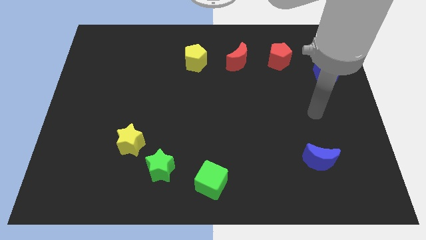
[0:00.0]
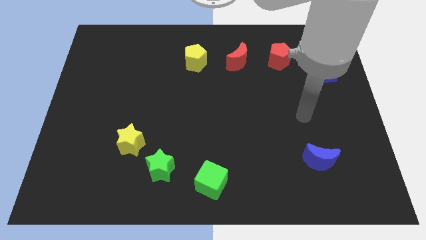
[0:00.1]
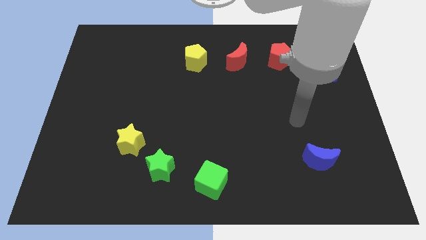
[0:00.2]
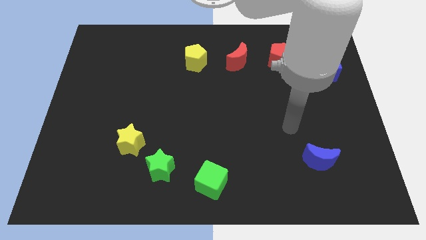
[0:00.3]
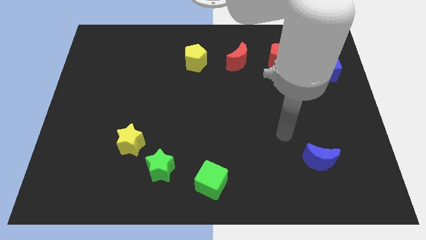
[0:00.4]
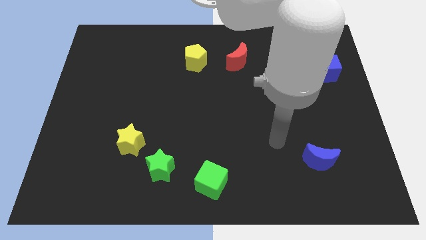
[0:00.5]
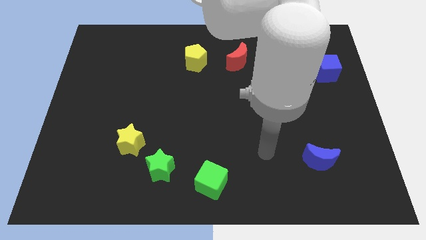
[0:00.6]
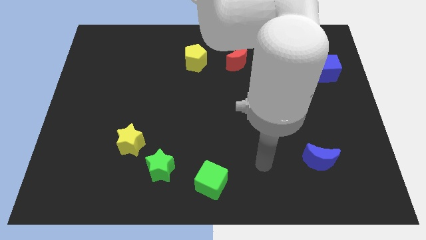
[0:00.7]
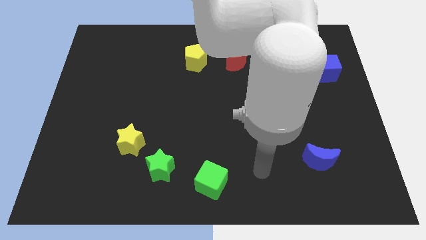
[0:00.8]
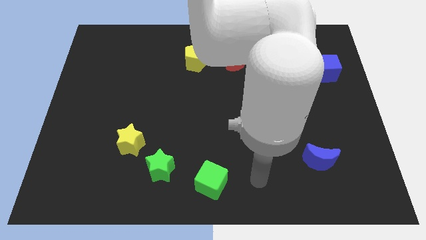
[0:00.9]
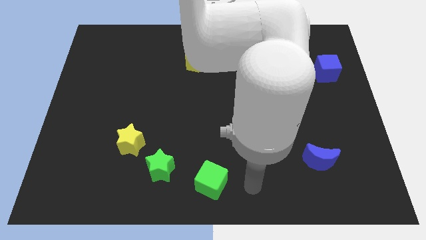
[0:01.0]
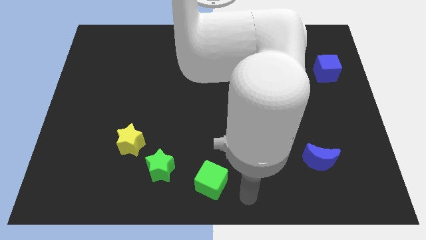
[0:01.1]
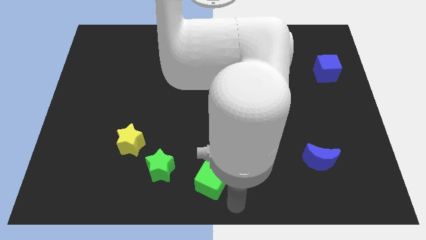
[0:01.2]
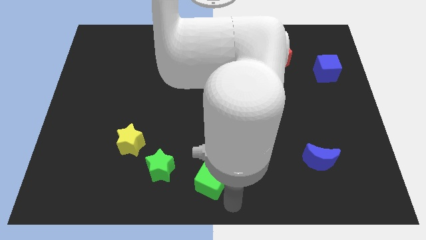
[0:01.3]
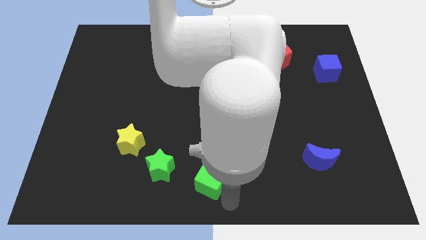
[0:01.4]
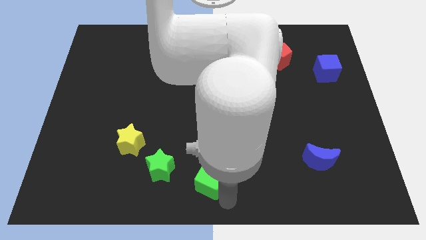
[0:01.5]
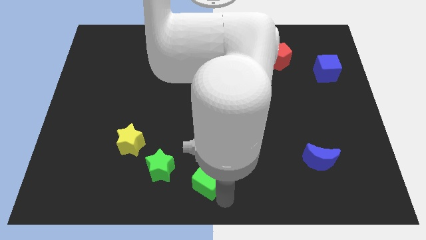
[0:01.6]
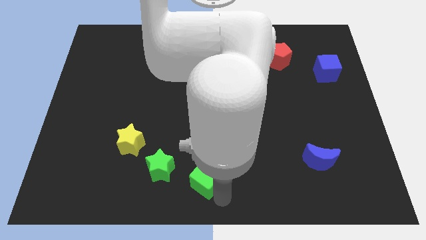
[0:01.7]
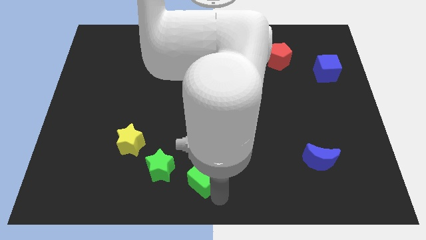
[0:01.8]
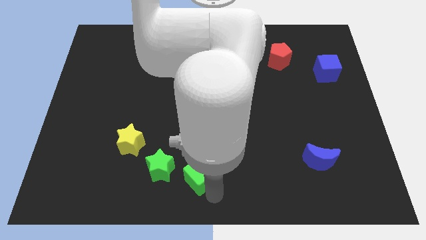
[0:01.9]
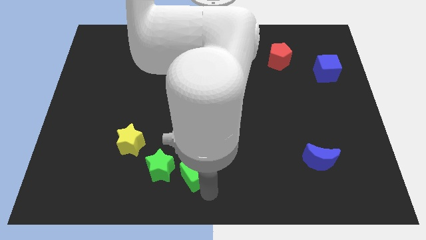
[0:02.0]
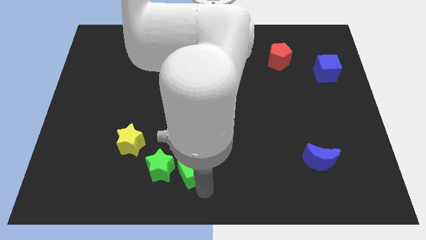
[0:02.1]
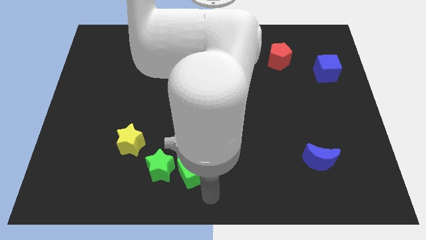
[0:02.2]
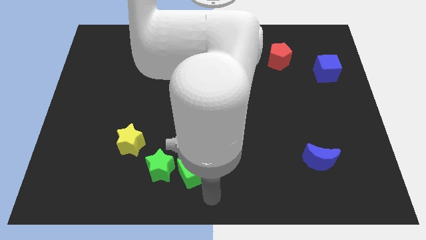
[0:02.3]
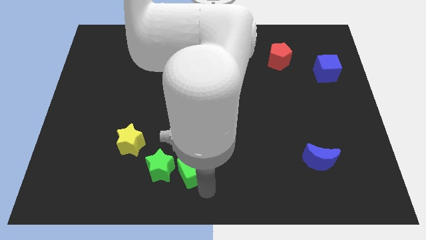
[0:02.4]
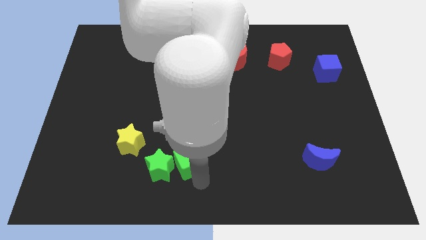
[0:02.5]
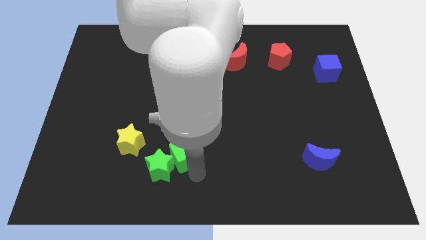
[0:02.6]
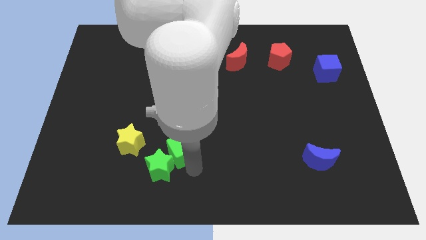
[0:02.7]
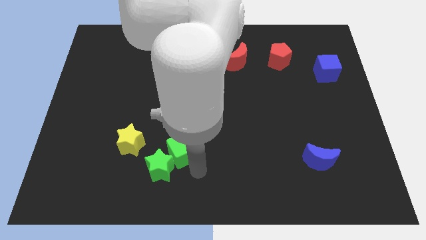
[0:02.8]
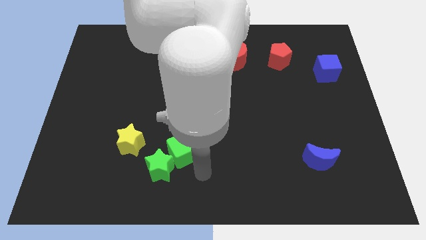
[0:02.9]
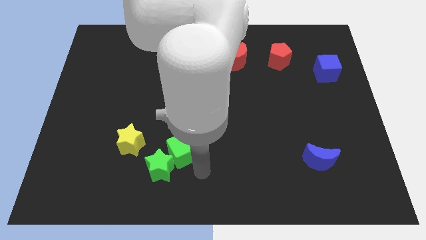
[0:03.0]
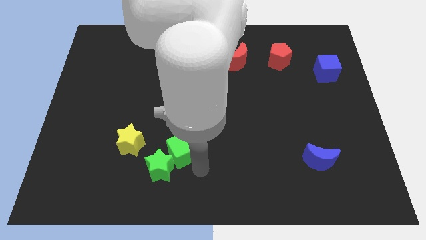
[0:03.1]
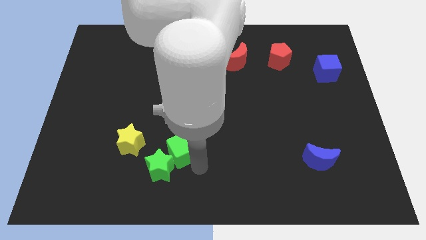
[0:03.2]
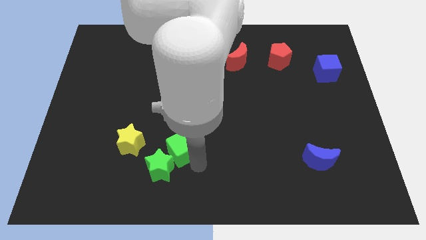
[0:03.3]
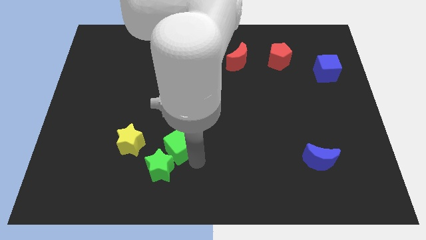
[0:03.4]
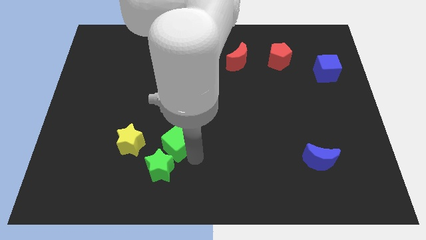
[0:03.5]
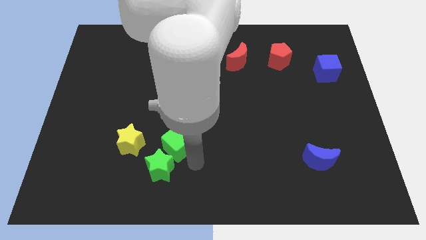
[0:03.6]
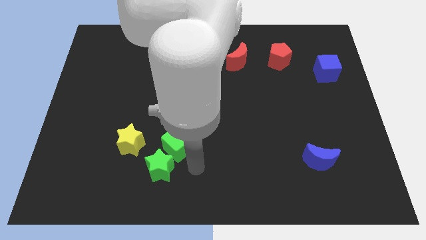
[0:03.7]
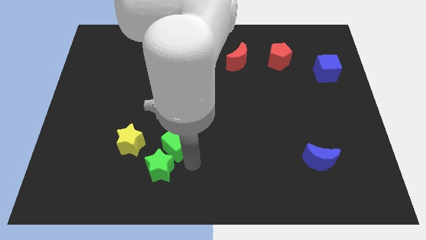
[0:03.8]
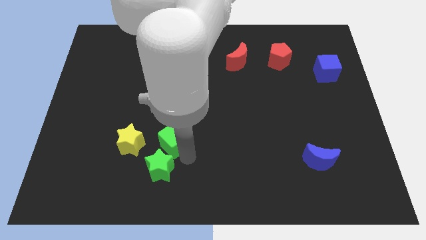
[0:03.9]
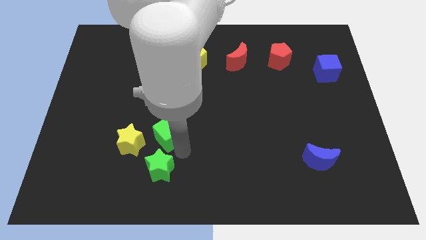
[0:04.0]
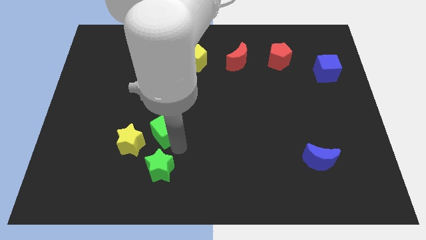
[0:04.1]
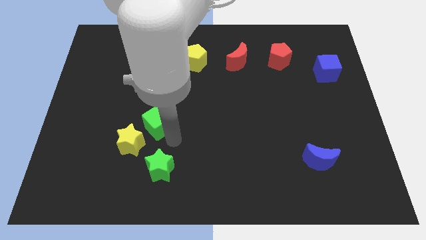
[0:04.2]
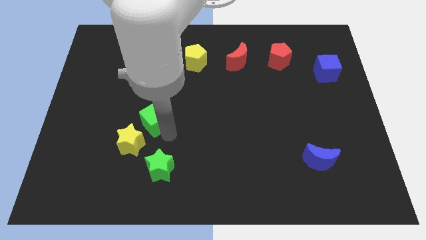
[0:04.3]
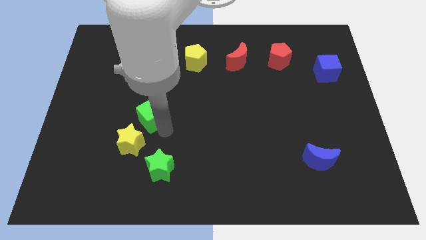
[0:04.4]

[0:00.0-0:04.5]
slide the green cube up and to the left diagonally

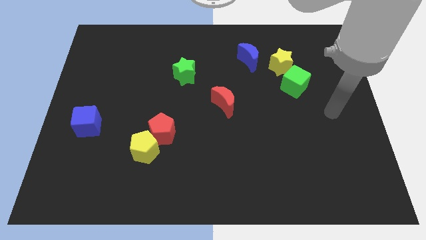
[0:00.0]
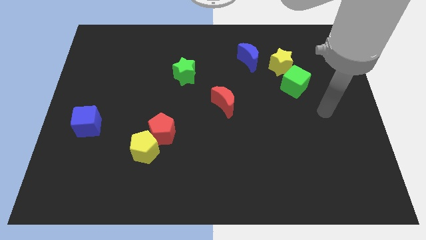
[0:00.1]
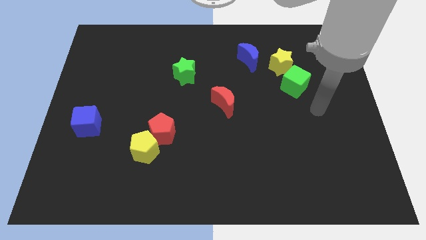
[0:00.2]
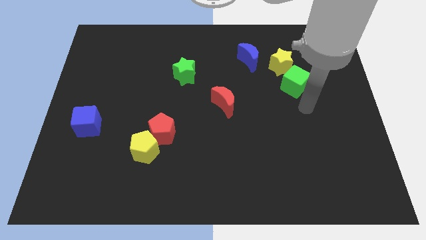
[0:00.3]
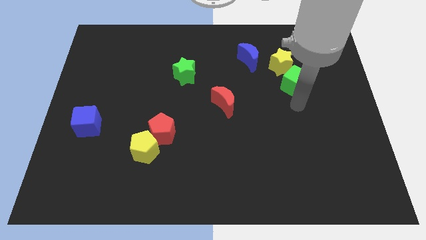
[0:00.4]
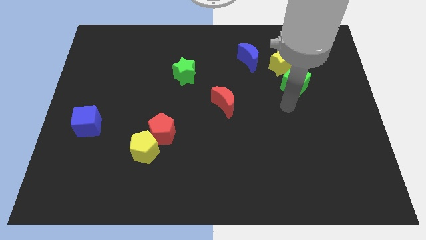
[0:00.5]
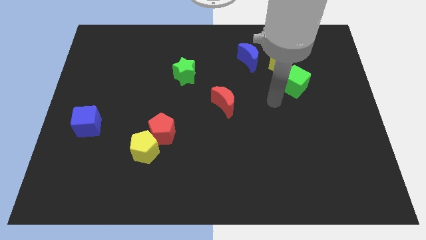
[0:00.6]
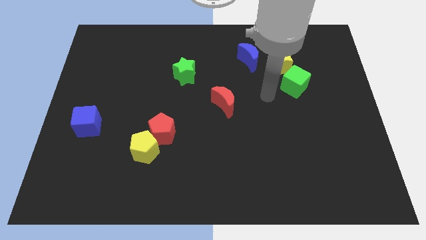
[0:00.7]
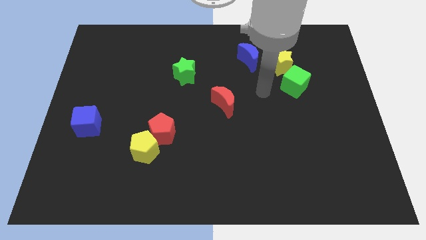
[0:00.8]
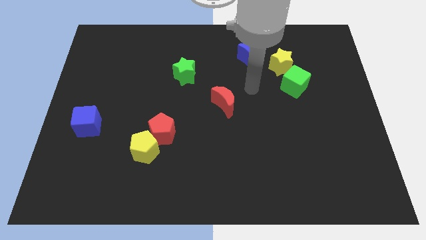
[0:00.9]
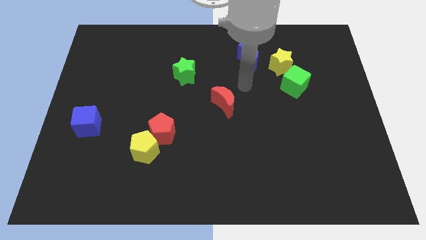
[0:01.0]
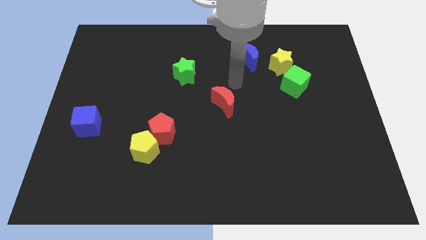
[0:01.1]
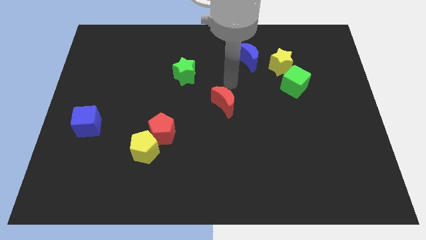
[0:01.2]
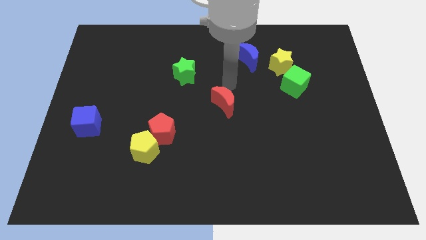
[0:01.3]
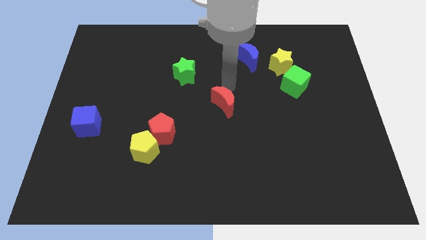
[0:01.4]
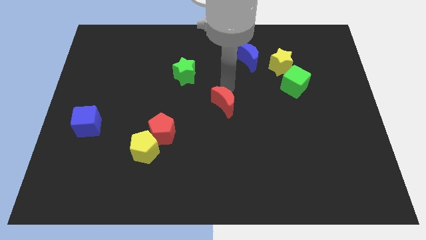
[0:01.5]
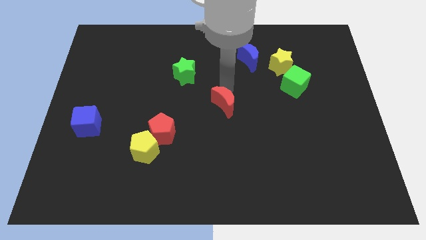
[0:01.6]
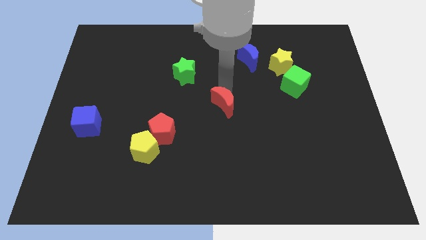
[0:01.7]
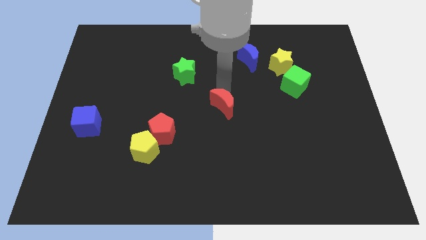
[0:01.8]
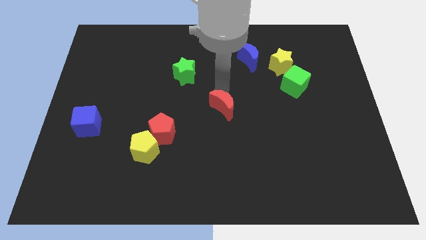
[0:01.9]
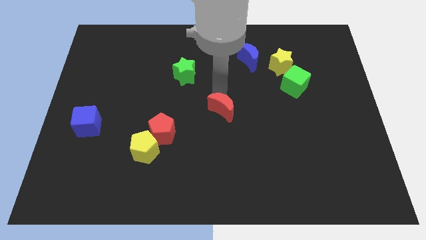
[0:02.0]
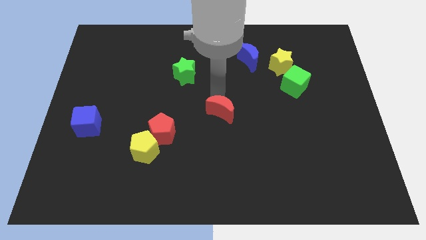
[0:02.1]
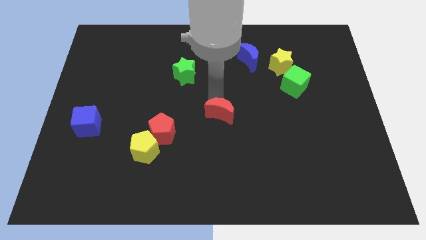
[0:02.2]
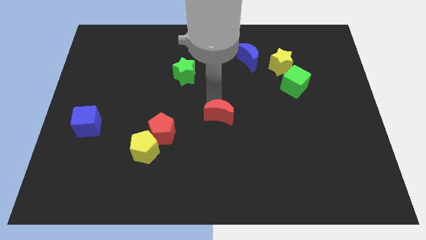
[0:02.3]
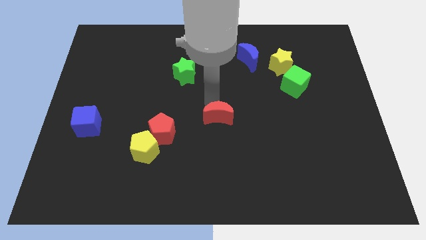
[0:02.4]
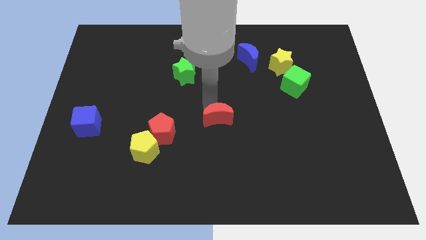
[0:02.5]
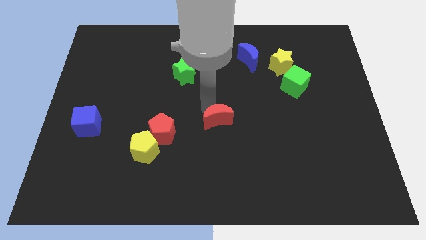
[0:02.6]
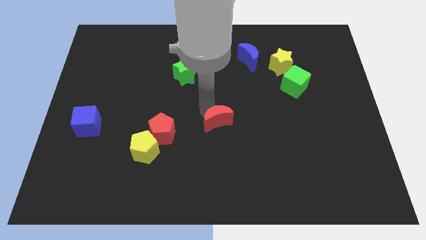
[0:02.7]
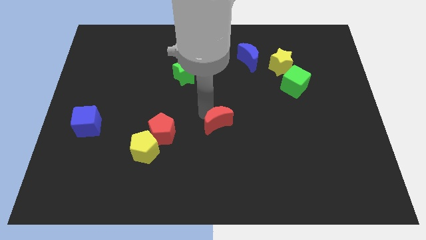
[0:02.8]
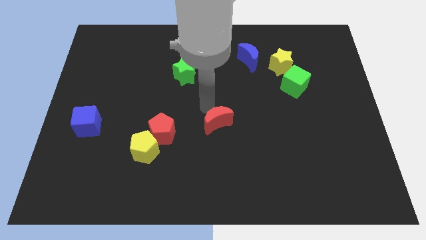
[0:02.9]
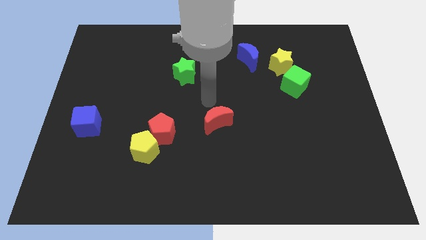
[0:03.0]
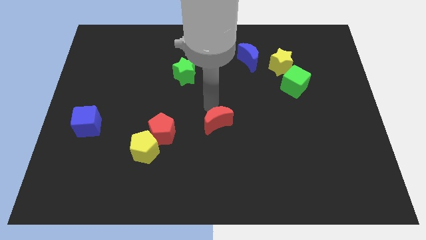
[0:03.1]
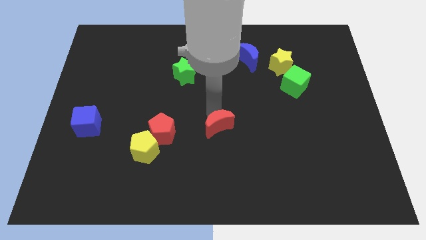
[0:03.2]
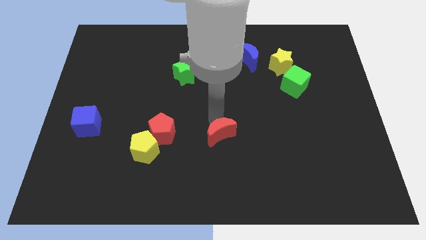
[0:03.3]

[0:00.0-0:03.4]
push the red moon down a little bit
